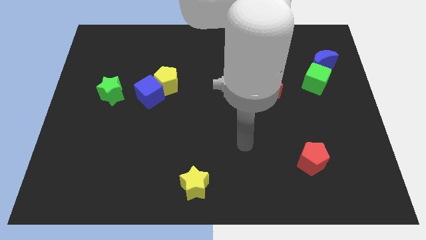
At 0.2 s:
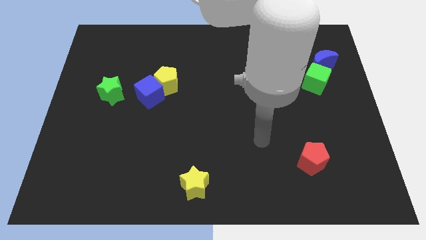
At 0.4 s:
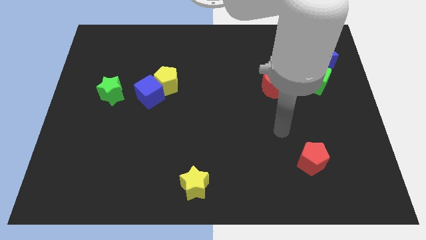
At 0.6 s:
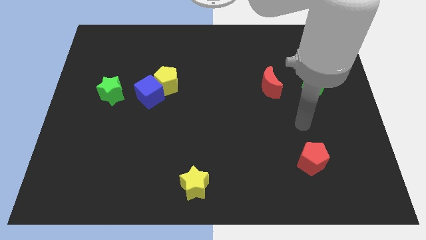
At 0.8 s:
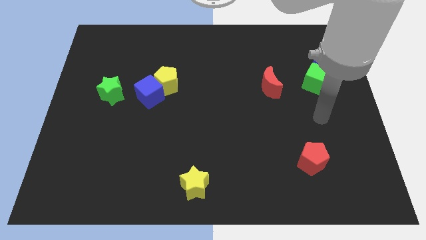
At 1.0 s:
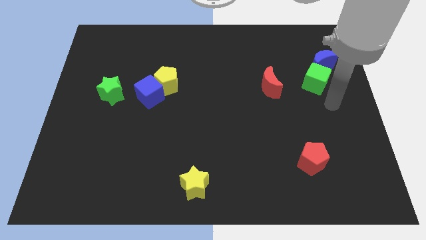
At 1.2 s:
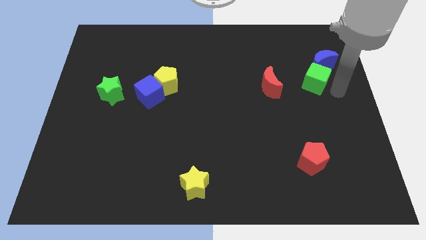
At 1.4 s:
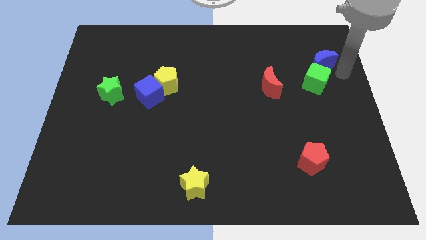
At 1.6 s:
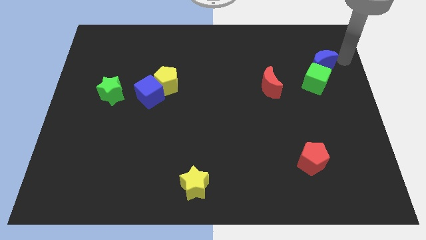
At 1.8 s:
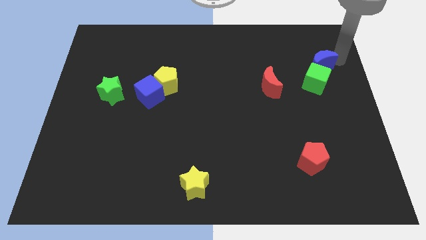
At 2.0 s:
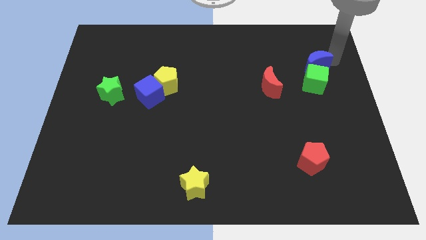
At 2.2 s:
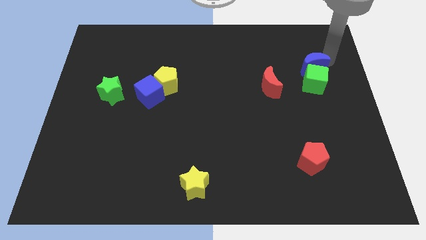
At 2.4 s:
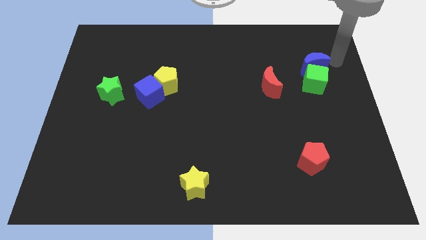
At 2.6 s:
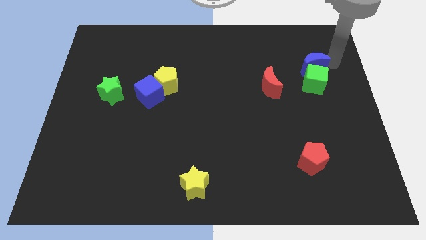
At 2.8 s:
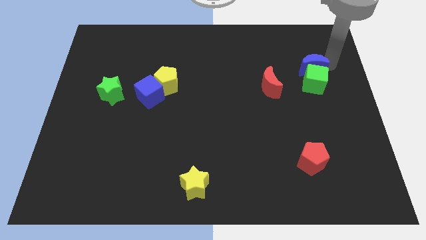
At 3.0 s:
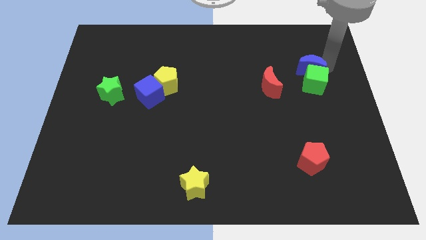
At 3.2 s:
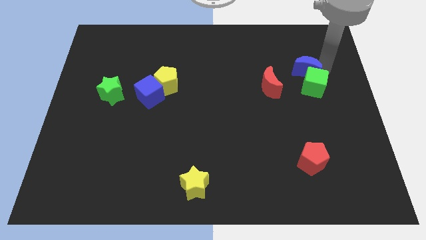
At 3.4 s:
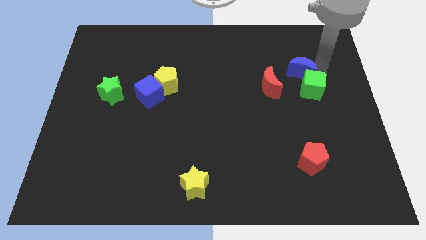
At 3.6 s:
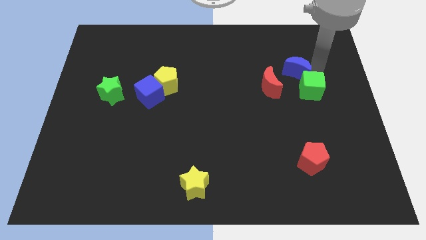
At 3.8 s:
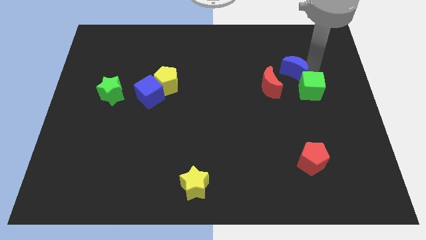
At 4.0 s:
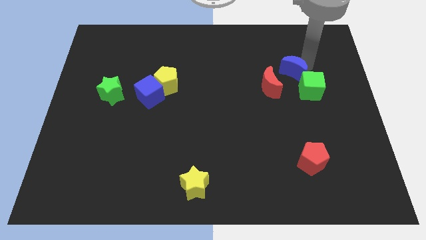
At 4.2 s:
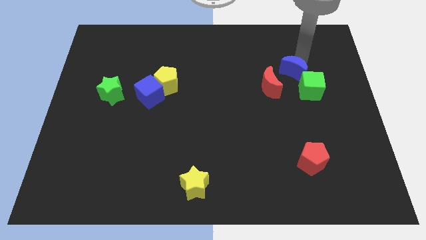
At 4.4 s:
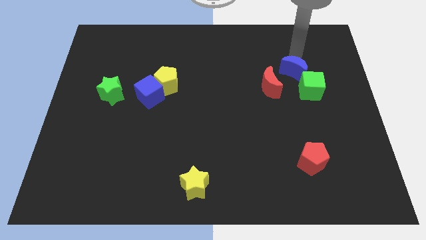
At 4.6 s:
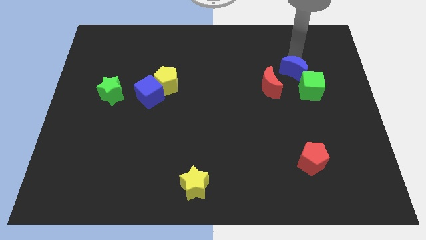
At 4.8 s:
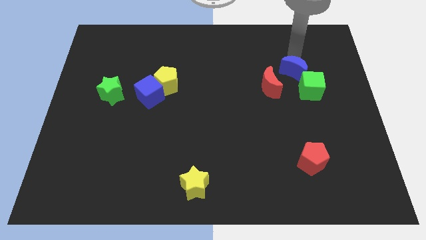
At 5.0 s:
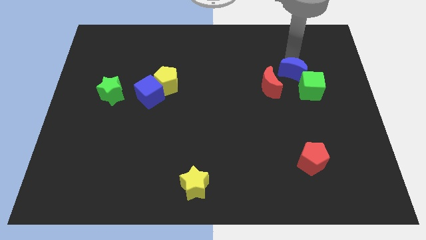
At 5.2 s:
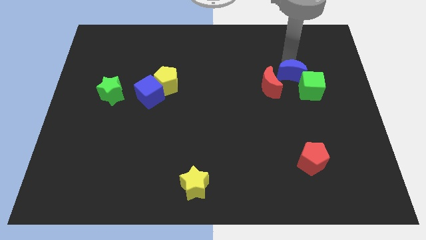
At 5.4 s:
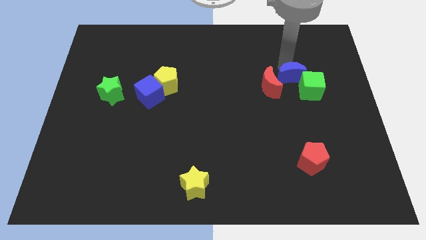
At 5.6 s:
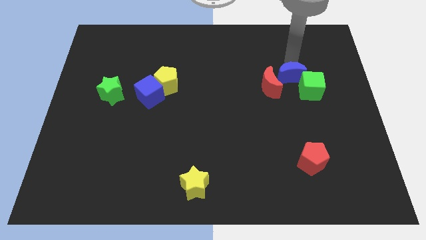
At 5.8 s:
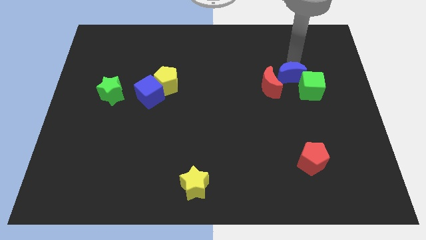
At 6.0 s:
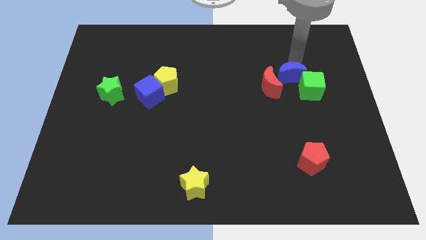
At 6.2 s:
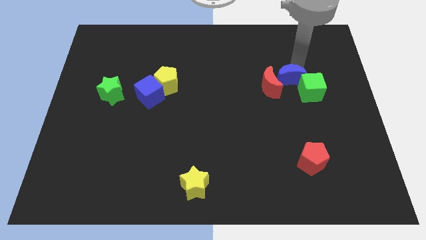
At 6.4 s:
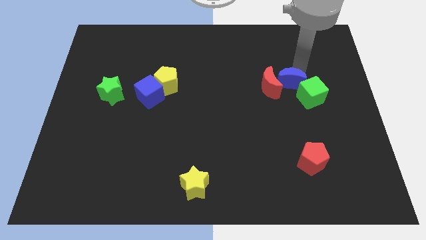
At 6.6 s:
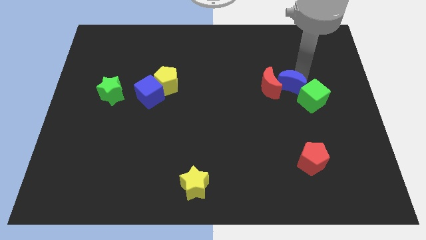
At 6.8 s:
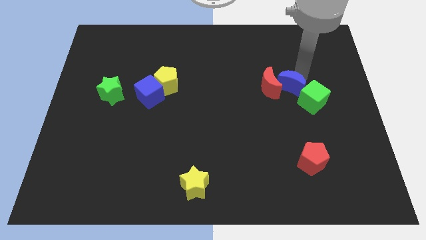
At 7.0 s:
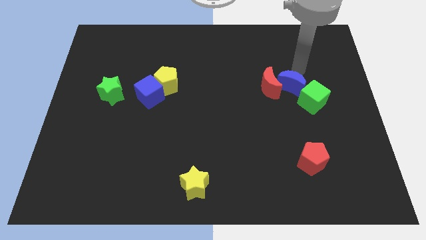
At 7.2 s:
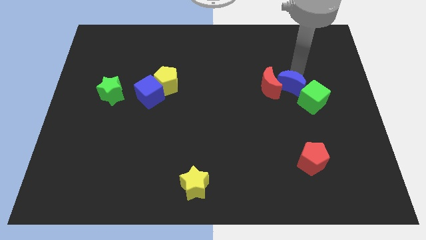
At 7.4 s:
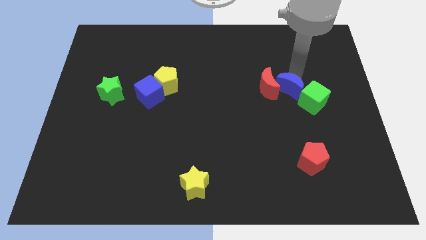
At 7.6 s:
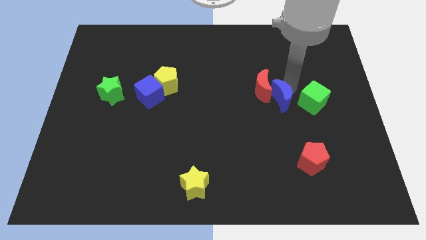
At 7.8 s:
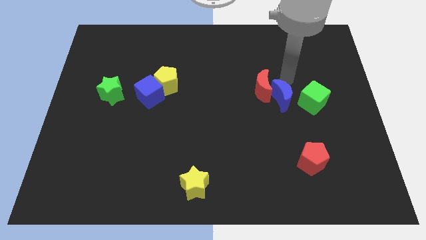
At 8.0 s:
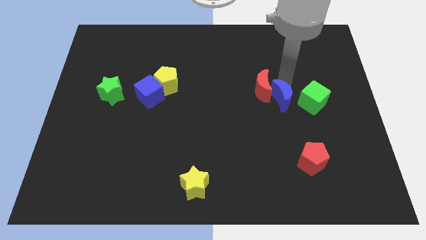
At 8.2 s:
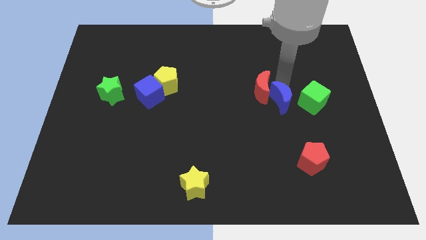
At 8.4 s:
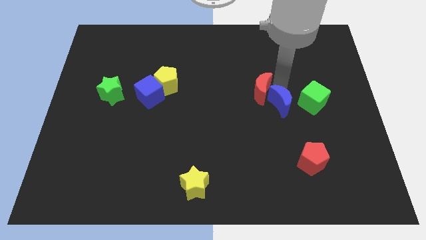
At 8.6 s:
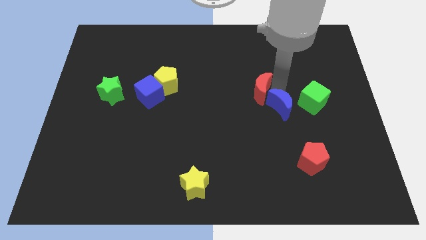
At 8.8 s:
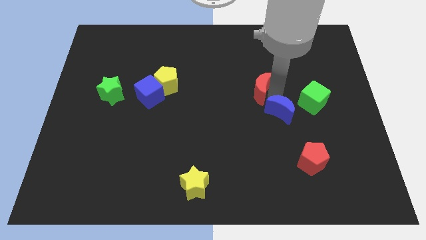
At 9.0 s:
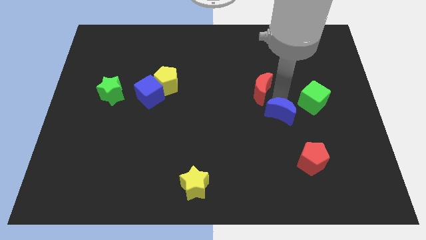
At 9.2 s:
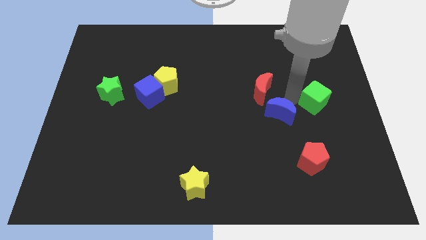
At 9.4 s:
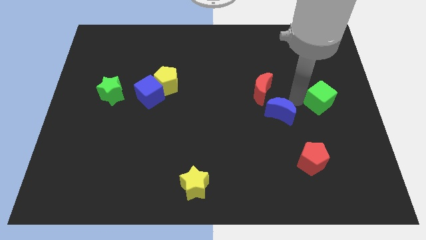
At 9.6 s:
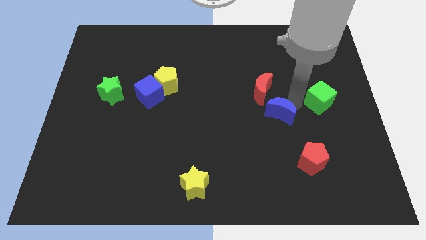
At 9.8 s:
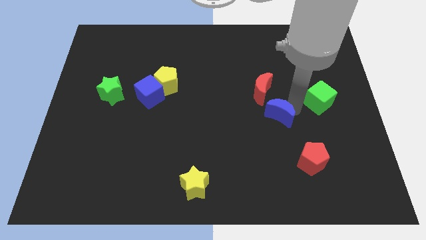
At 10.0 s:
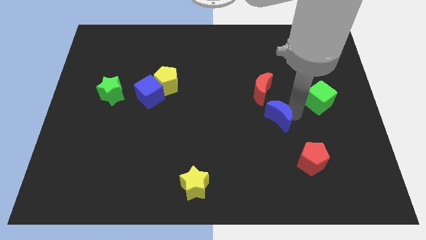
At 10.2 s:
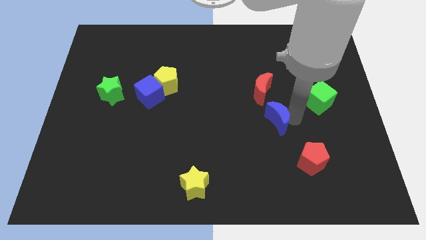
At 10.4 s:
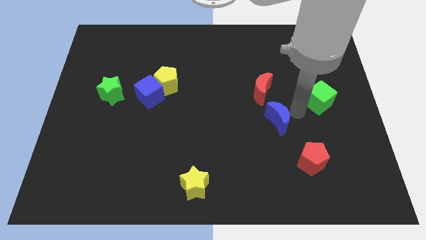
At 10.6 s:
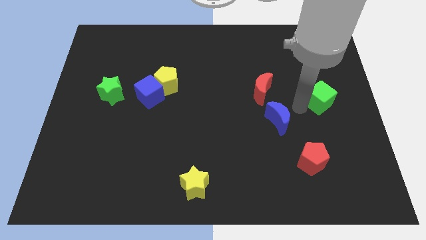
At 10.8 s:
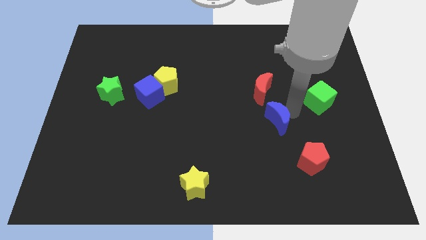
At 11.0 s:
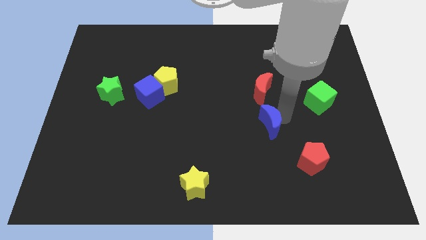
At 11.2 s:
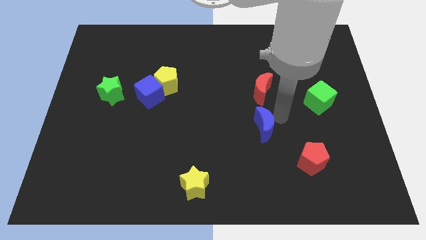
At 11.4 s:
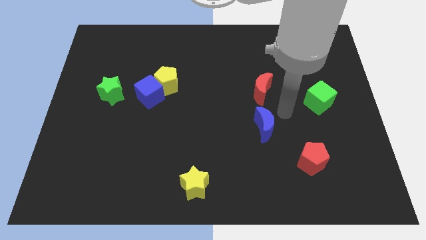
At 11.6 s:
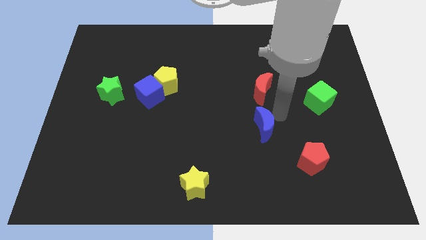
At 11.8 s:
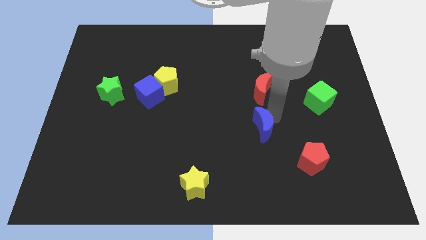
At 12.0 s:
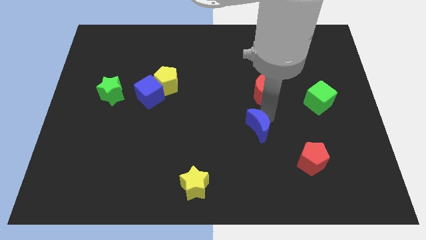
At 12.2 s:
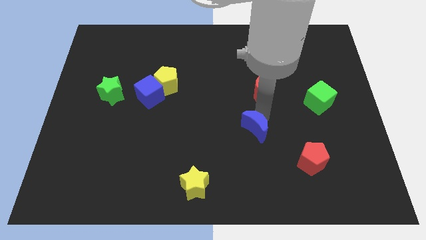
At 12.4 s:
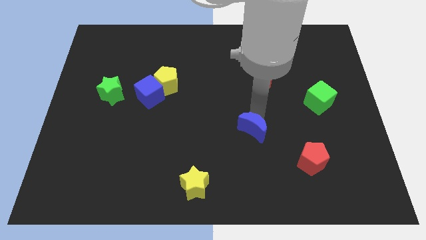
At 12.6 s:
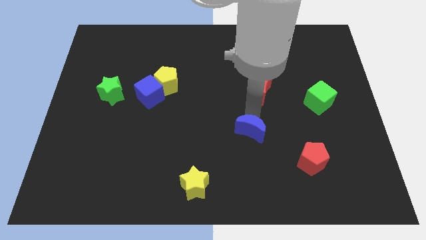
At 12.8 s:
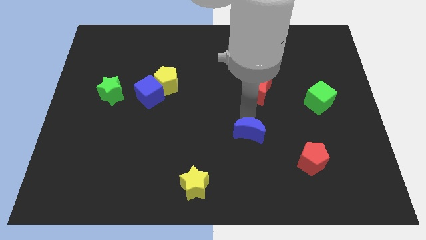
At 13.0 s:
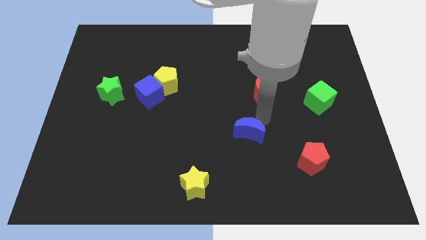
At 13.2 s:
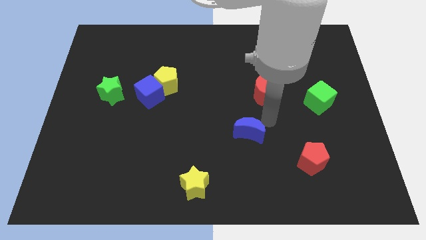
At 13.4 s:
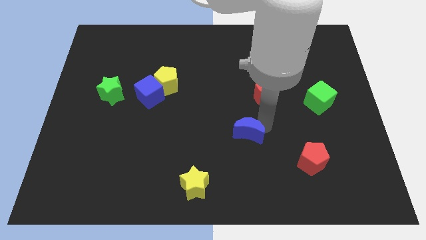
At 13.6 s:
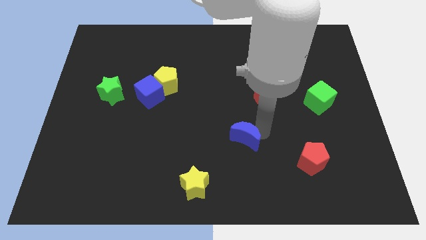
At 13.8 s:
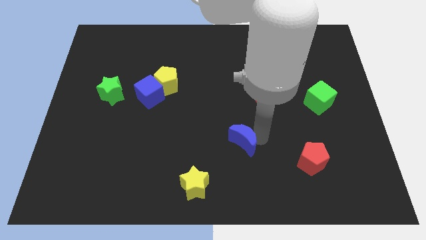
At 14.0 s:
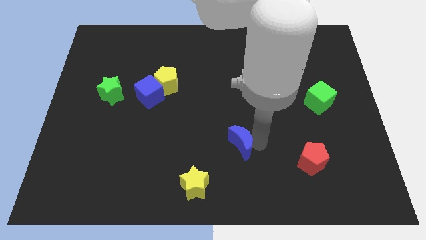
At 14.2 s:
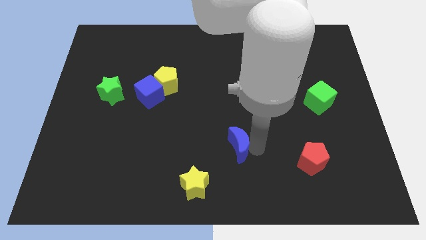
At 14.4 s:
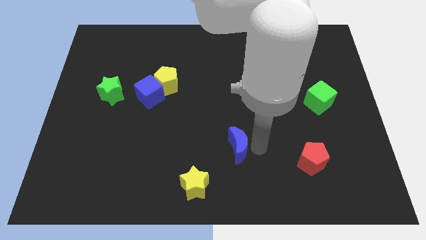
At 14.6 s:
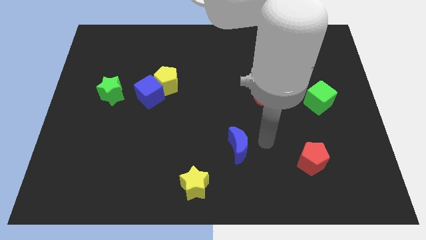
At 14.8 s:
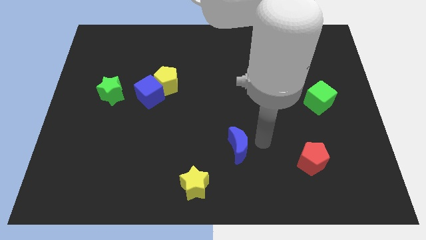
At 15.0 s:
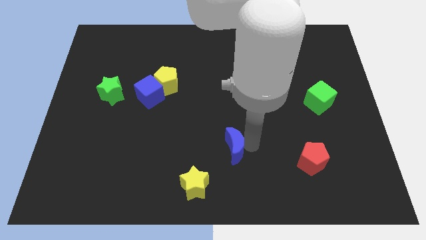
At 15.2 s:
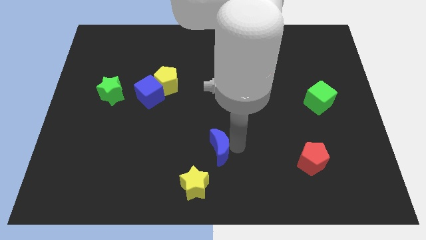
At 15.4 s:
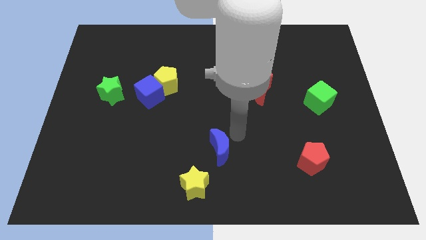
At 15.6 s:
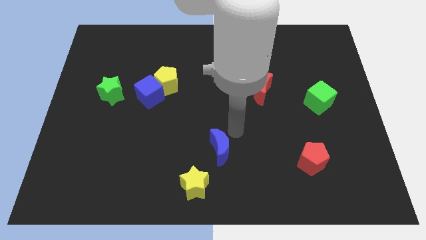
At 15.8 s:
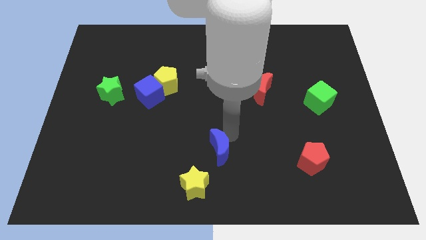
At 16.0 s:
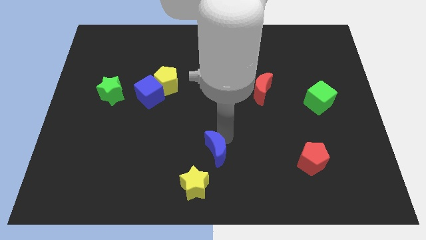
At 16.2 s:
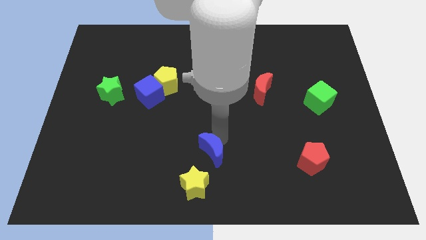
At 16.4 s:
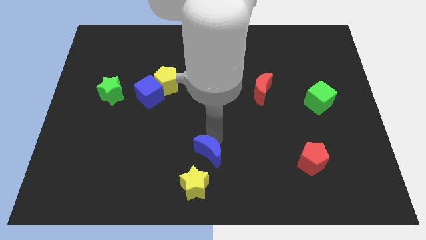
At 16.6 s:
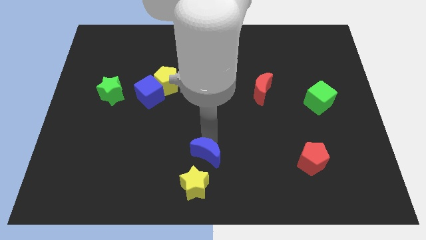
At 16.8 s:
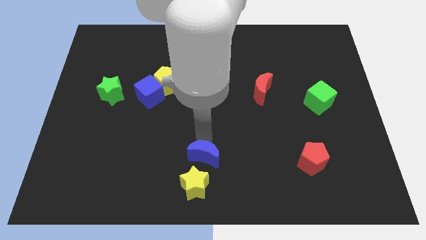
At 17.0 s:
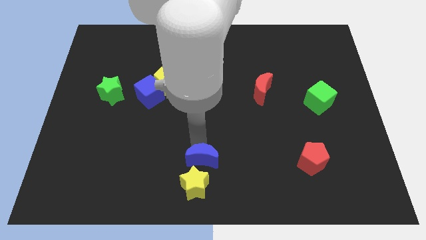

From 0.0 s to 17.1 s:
move the blue moon next to the yellow star

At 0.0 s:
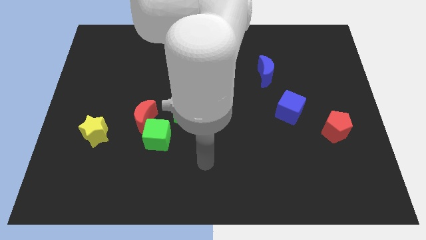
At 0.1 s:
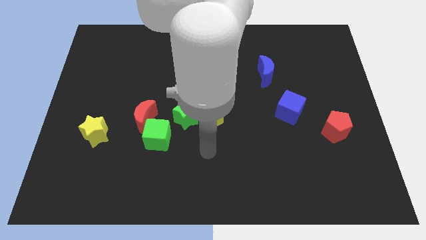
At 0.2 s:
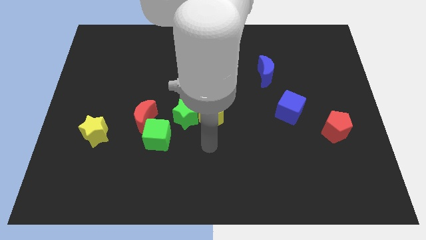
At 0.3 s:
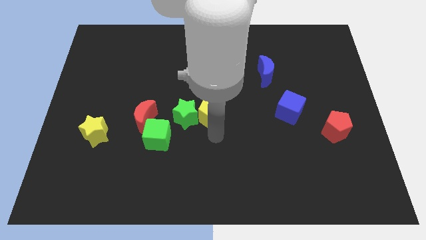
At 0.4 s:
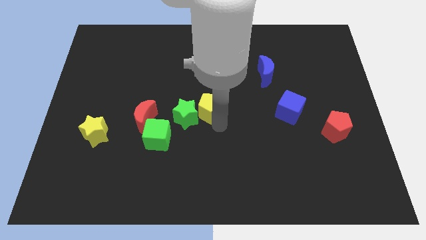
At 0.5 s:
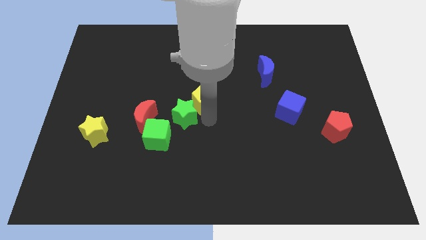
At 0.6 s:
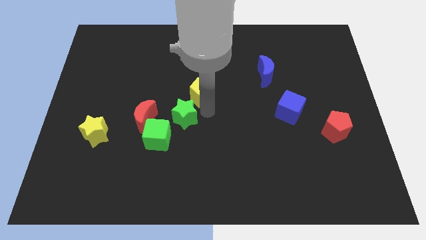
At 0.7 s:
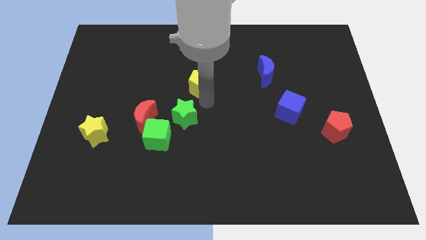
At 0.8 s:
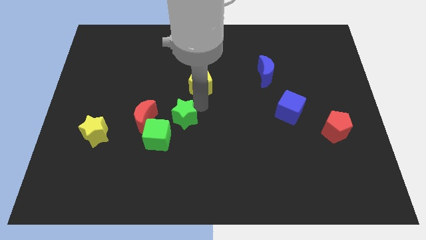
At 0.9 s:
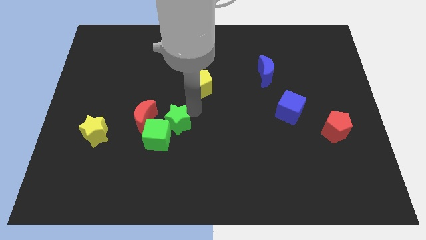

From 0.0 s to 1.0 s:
put the green star towards the green cube
